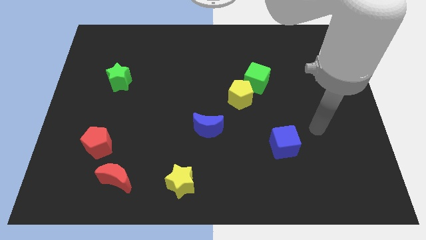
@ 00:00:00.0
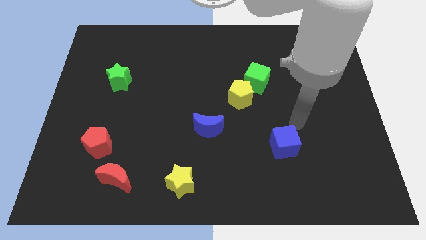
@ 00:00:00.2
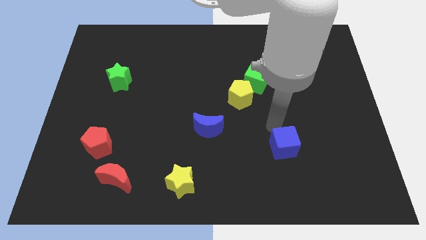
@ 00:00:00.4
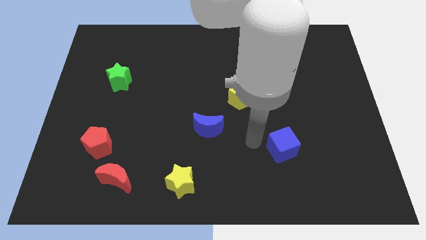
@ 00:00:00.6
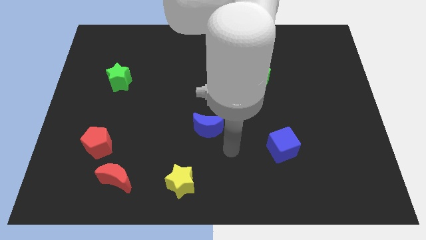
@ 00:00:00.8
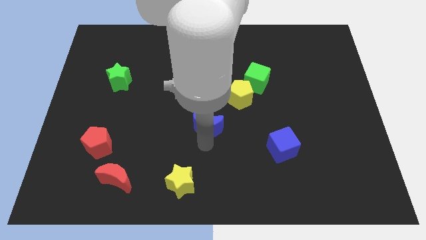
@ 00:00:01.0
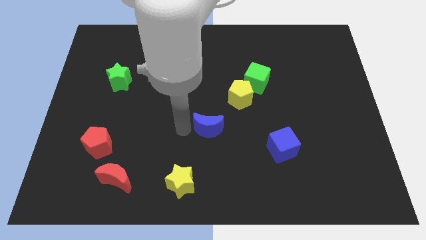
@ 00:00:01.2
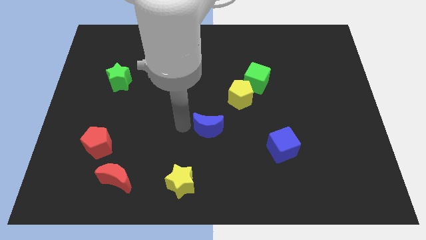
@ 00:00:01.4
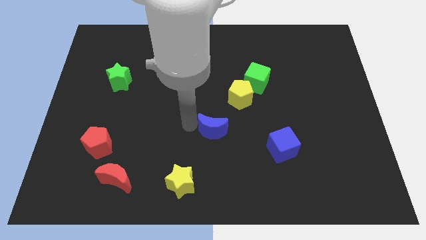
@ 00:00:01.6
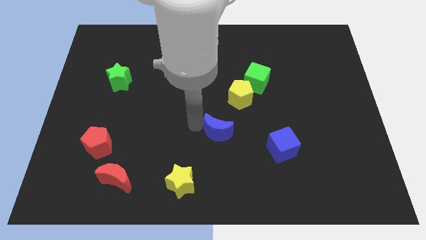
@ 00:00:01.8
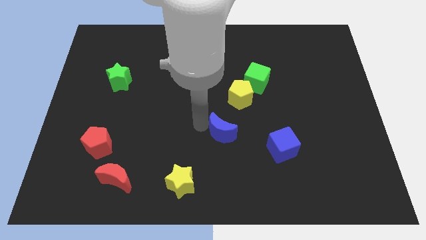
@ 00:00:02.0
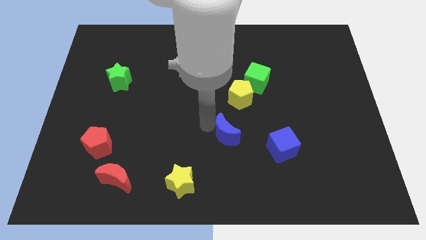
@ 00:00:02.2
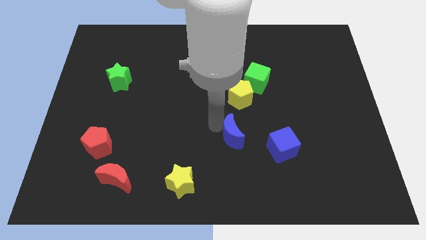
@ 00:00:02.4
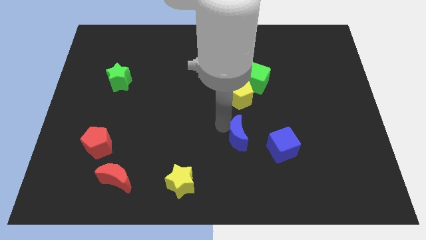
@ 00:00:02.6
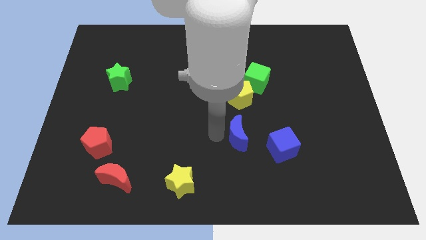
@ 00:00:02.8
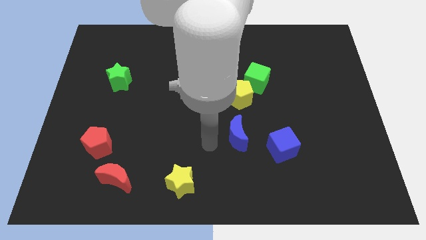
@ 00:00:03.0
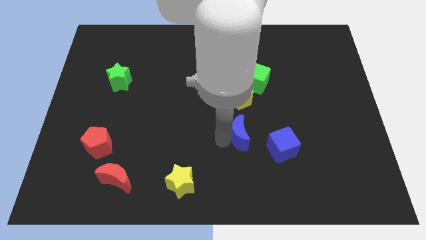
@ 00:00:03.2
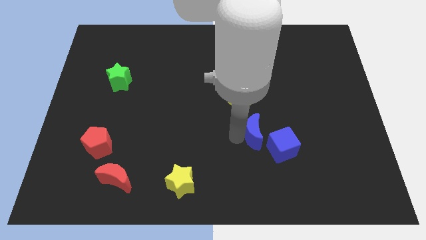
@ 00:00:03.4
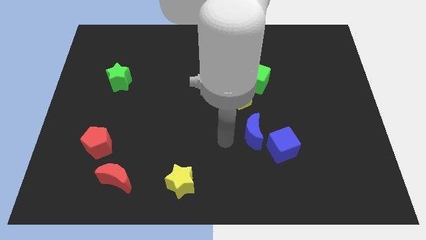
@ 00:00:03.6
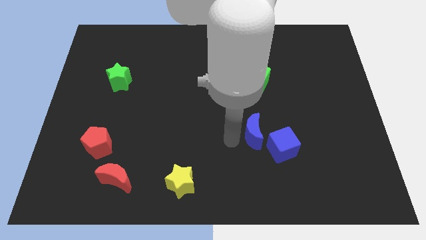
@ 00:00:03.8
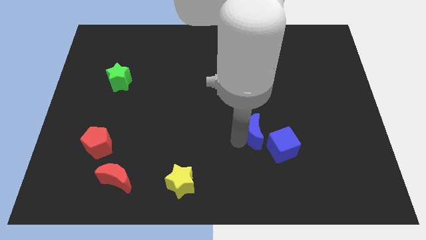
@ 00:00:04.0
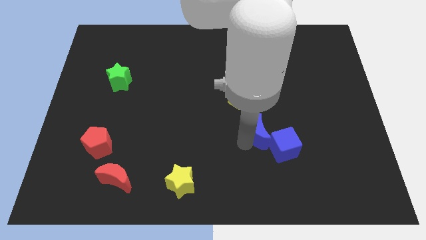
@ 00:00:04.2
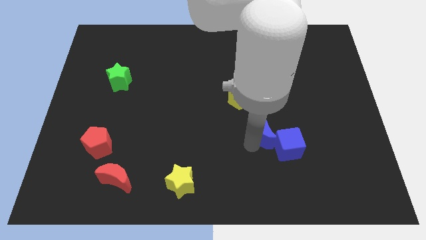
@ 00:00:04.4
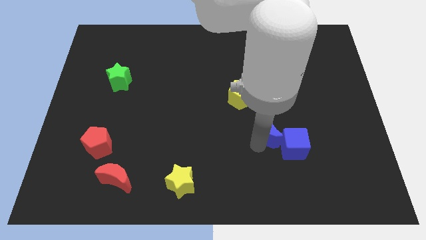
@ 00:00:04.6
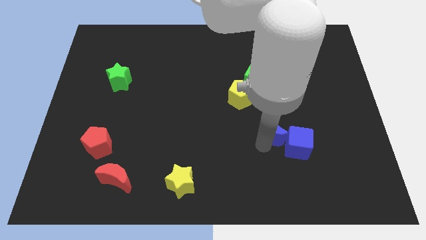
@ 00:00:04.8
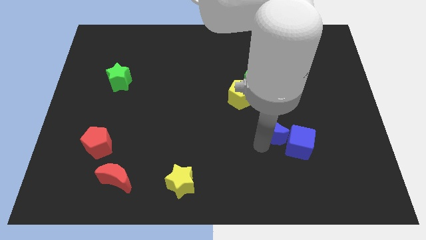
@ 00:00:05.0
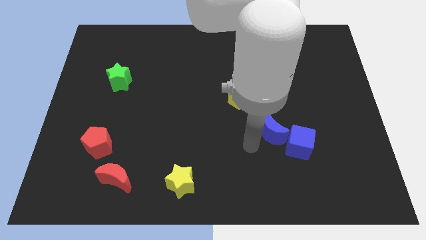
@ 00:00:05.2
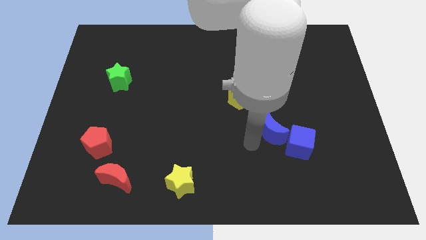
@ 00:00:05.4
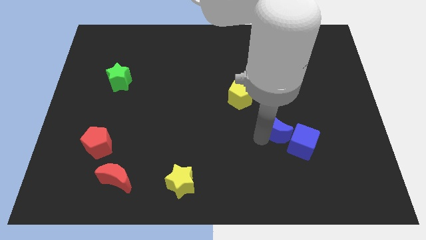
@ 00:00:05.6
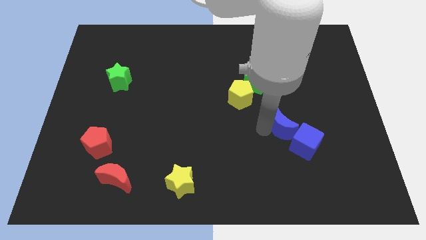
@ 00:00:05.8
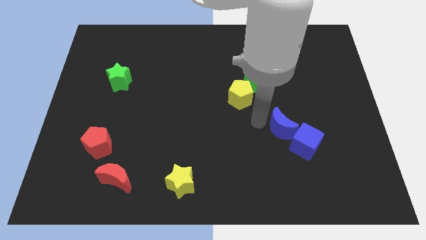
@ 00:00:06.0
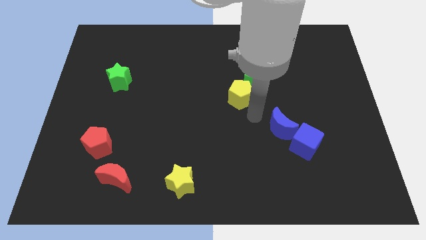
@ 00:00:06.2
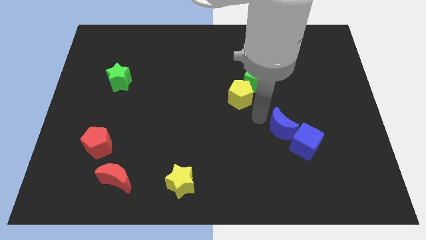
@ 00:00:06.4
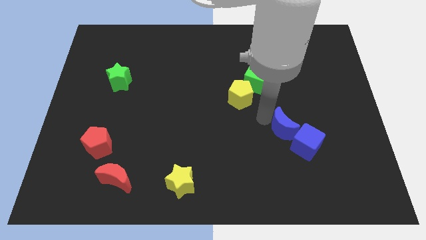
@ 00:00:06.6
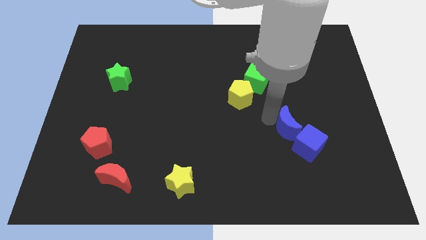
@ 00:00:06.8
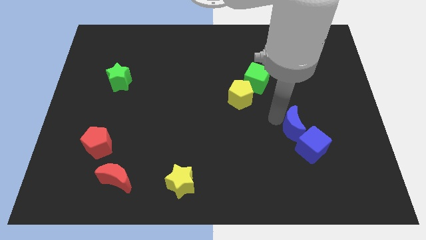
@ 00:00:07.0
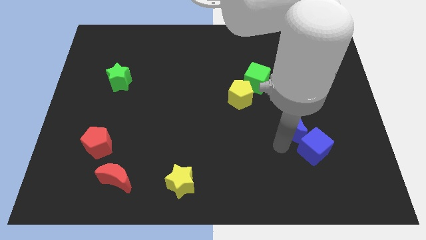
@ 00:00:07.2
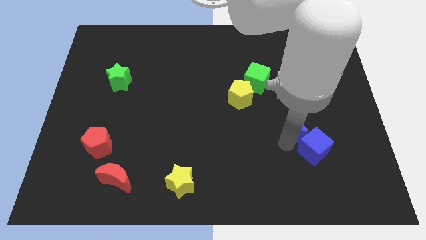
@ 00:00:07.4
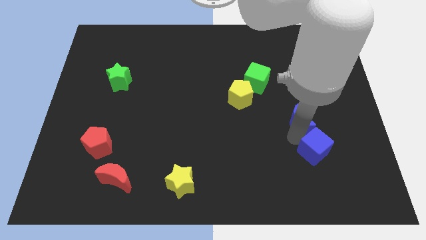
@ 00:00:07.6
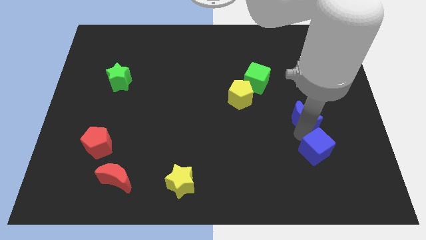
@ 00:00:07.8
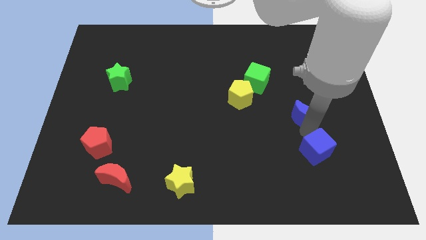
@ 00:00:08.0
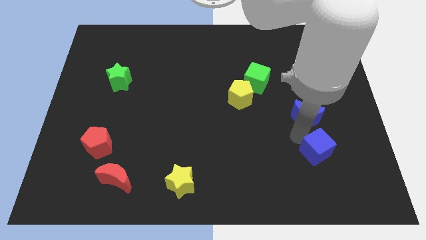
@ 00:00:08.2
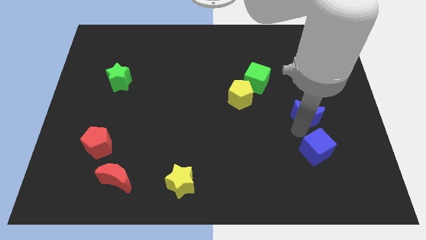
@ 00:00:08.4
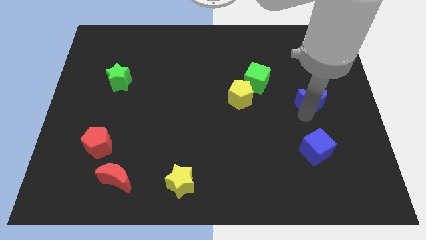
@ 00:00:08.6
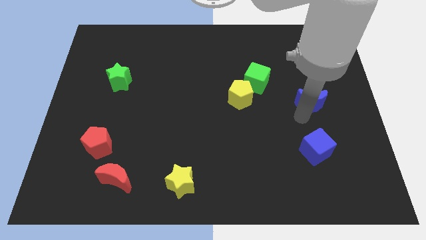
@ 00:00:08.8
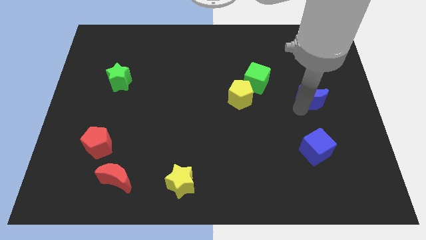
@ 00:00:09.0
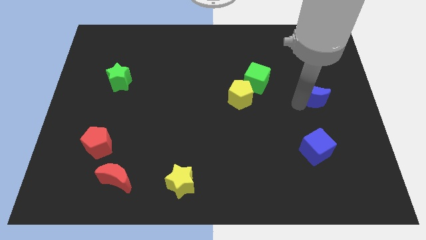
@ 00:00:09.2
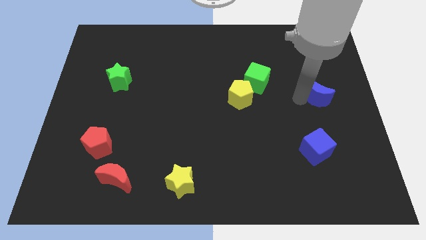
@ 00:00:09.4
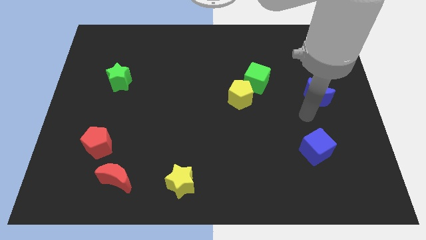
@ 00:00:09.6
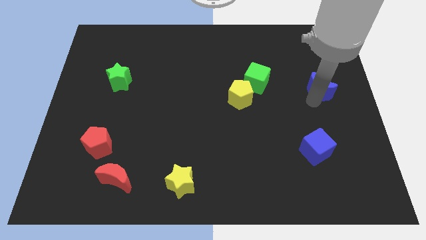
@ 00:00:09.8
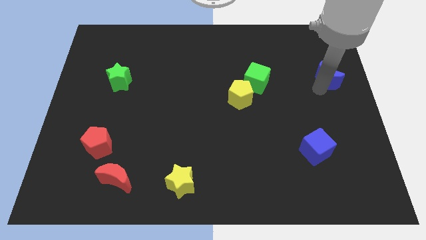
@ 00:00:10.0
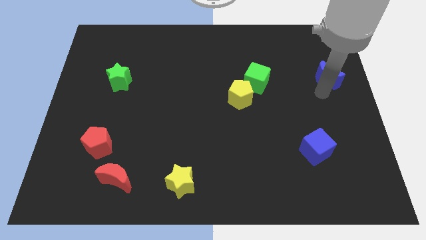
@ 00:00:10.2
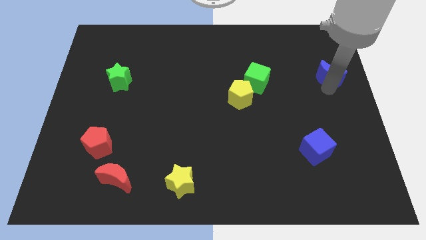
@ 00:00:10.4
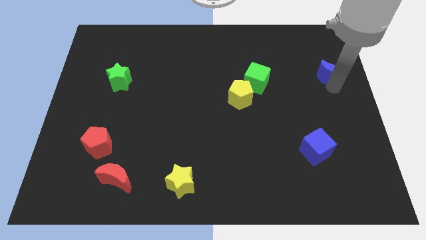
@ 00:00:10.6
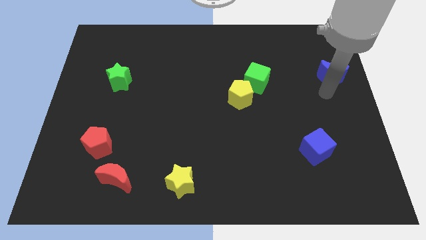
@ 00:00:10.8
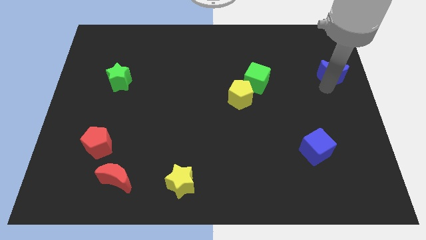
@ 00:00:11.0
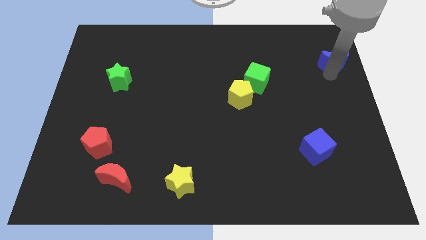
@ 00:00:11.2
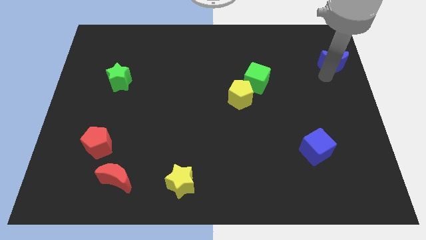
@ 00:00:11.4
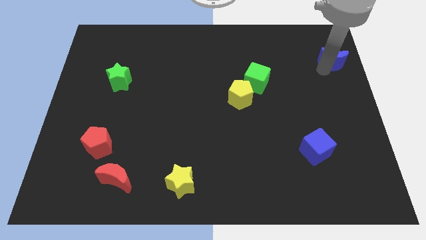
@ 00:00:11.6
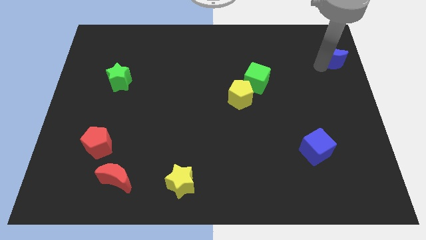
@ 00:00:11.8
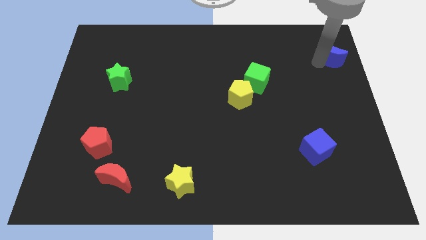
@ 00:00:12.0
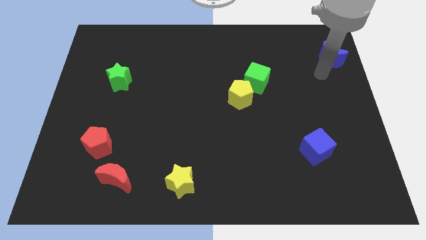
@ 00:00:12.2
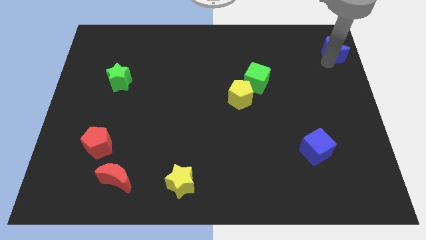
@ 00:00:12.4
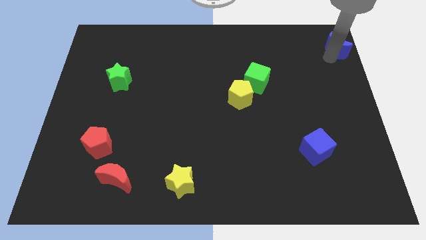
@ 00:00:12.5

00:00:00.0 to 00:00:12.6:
slide the blue moon to the top right

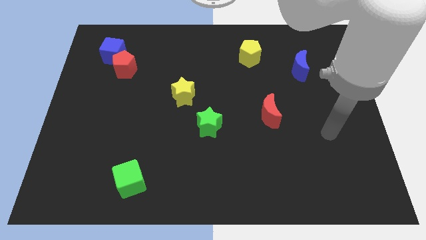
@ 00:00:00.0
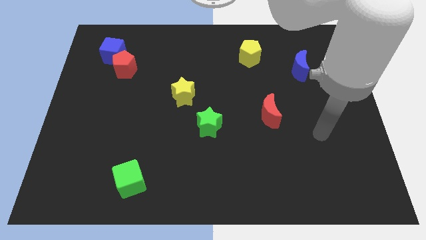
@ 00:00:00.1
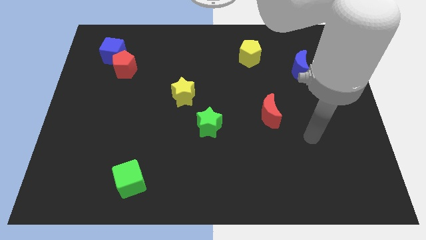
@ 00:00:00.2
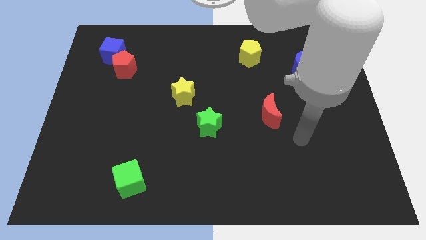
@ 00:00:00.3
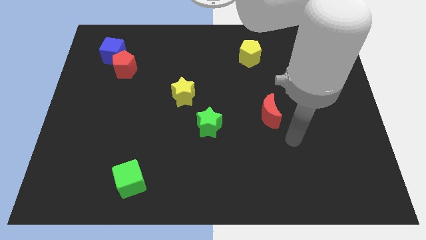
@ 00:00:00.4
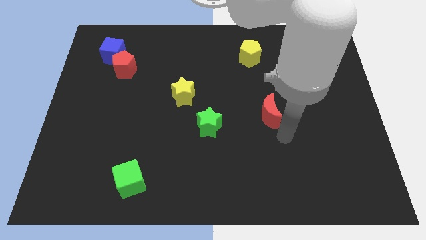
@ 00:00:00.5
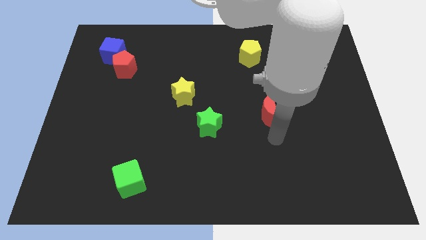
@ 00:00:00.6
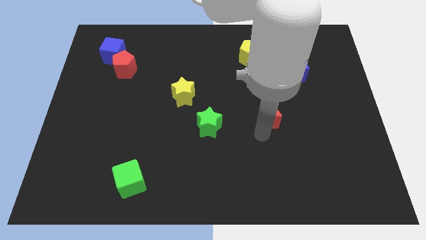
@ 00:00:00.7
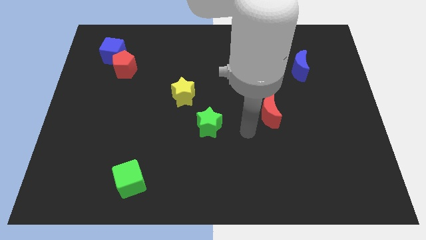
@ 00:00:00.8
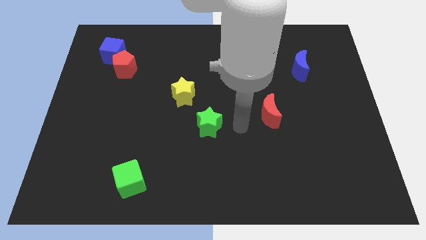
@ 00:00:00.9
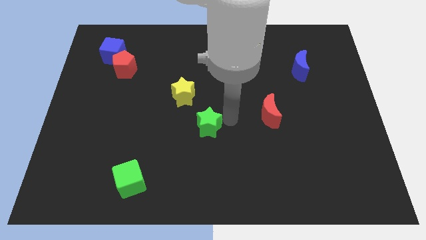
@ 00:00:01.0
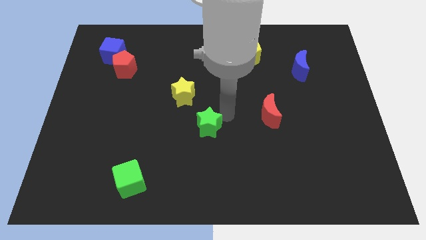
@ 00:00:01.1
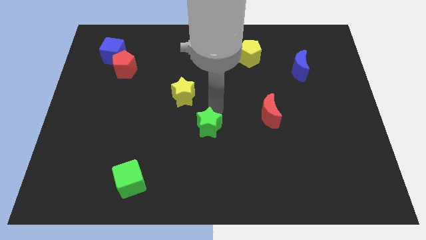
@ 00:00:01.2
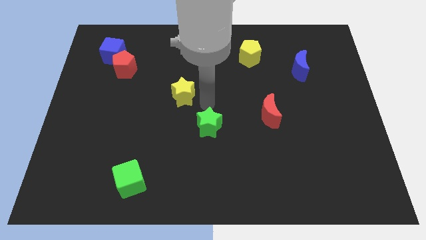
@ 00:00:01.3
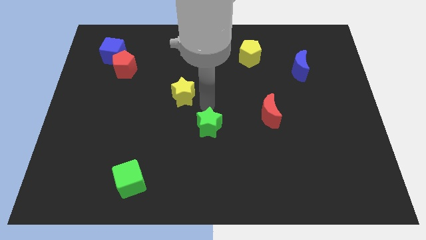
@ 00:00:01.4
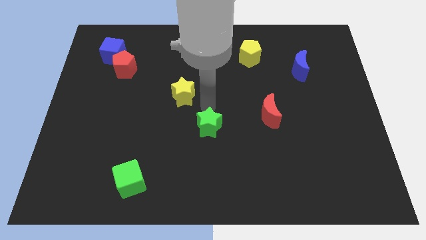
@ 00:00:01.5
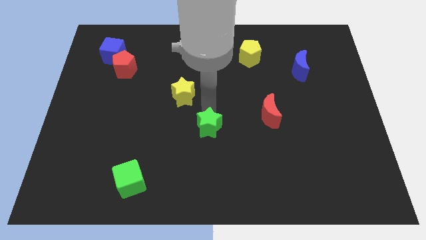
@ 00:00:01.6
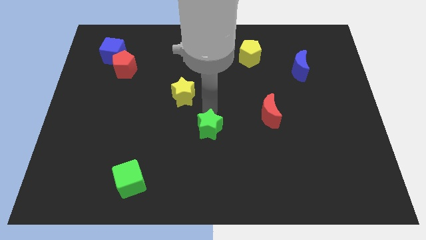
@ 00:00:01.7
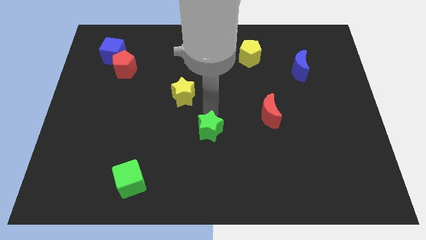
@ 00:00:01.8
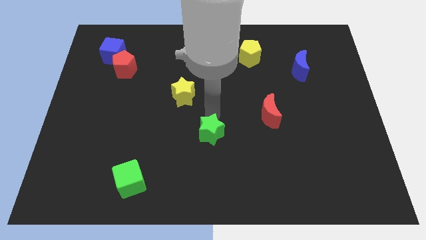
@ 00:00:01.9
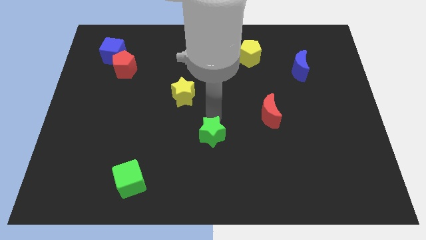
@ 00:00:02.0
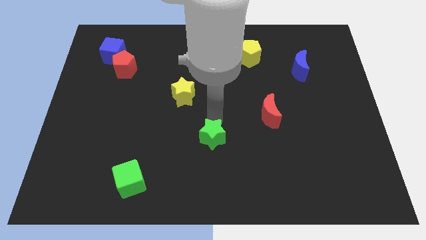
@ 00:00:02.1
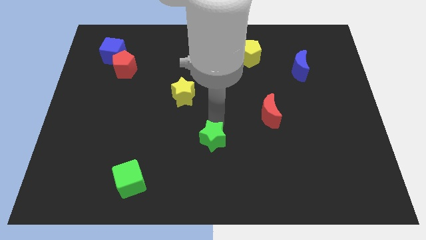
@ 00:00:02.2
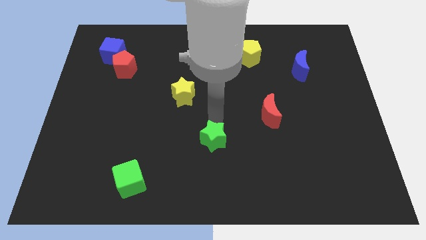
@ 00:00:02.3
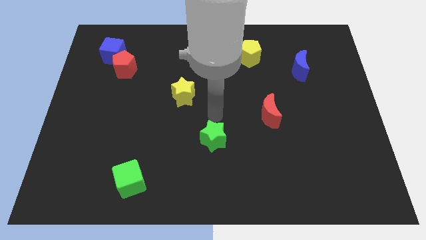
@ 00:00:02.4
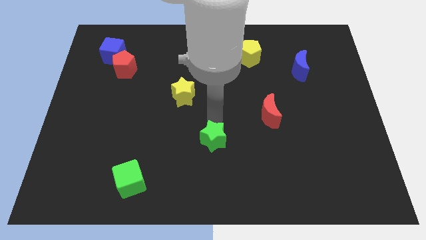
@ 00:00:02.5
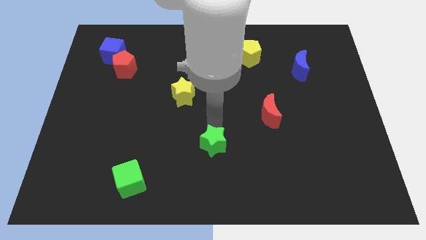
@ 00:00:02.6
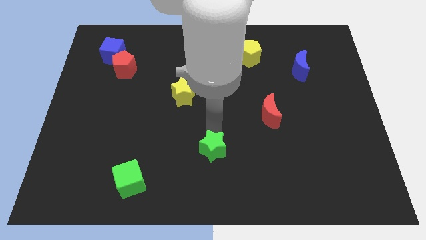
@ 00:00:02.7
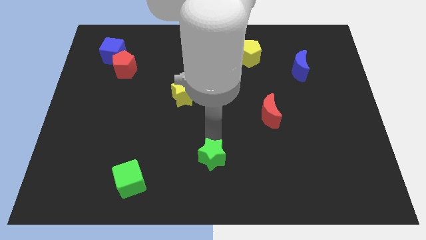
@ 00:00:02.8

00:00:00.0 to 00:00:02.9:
move the green star to the bottom side
